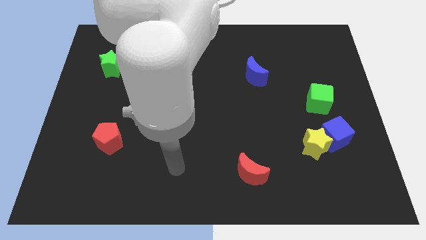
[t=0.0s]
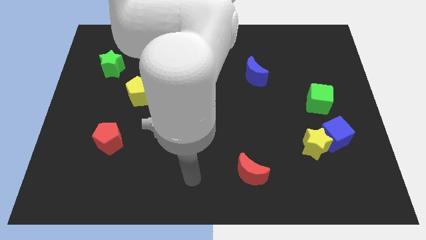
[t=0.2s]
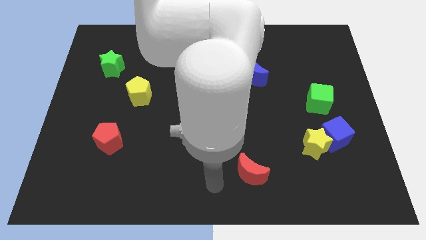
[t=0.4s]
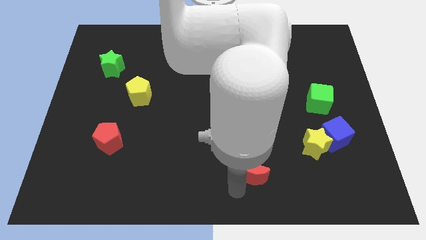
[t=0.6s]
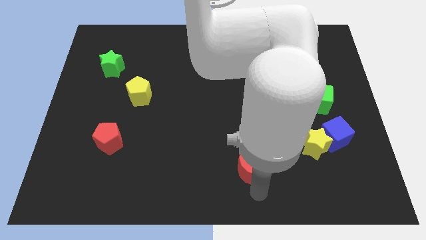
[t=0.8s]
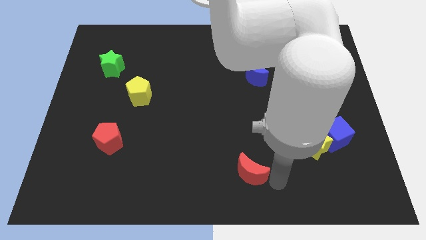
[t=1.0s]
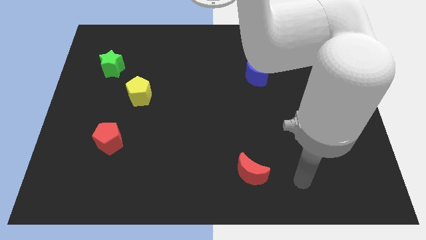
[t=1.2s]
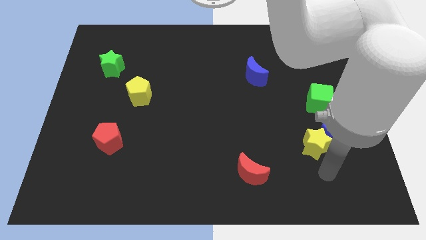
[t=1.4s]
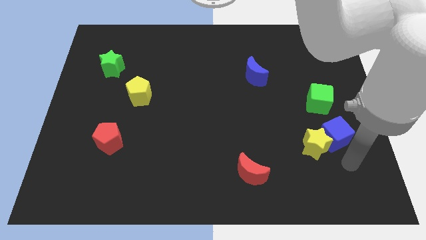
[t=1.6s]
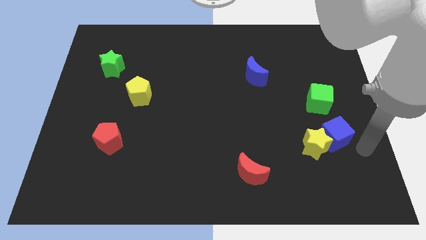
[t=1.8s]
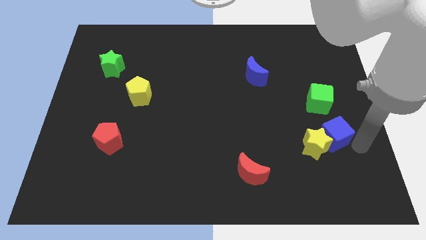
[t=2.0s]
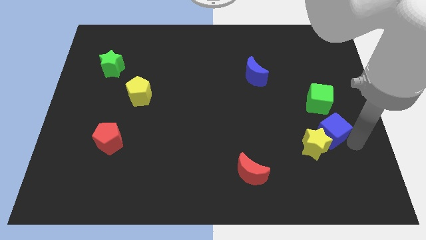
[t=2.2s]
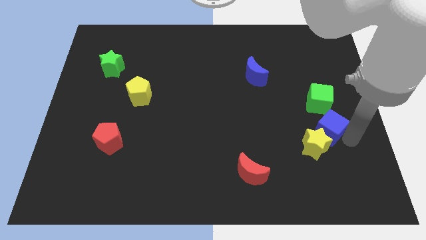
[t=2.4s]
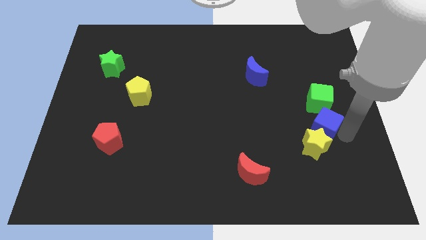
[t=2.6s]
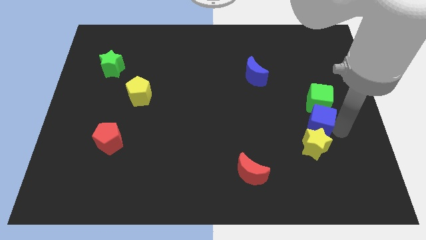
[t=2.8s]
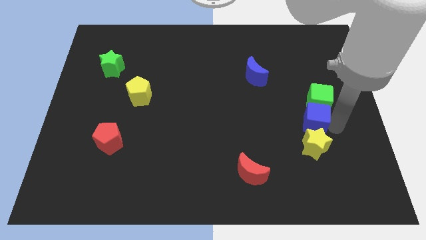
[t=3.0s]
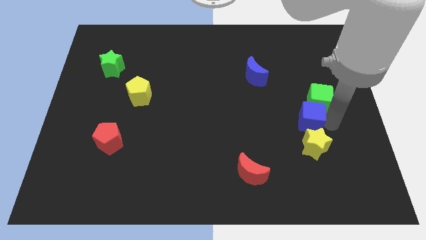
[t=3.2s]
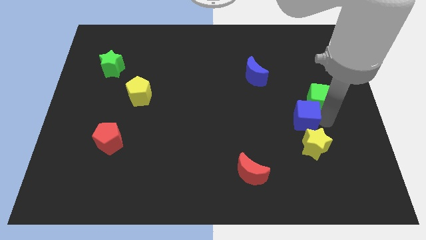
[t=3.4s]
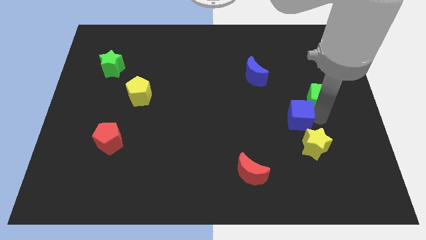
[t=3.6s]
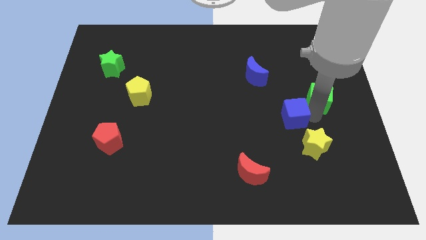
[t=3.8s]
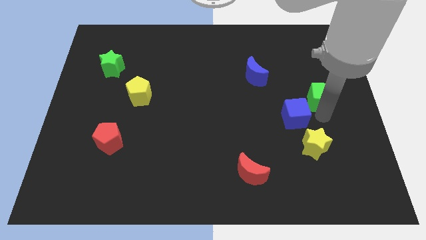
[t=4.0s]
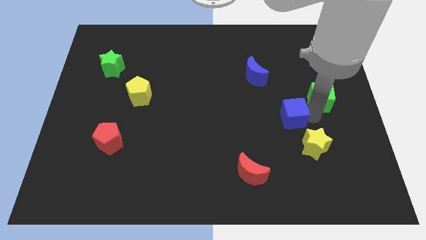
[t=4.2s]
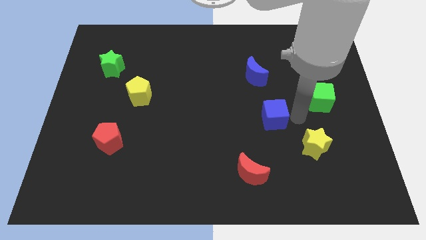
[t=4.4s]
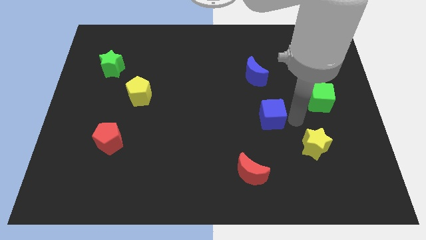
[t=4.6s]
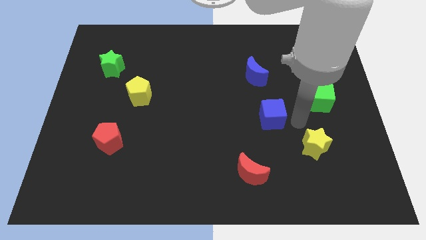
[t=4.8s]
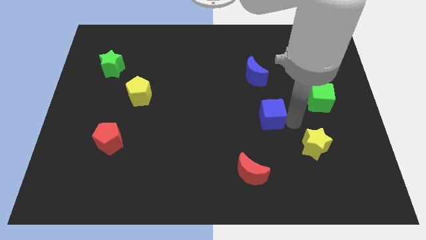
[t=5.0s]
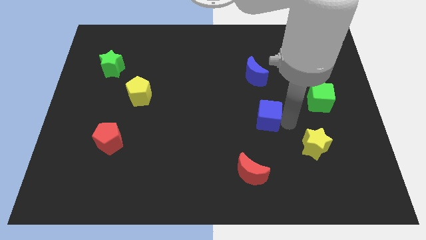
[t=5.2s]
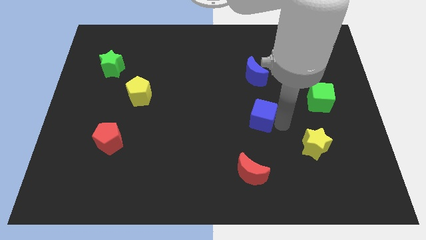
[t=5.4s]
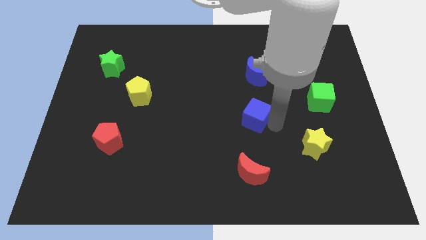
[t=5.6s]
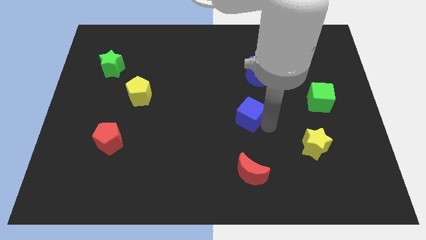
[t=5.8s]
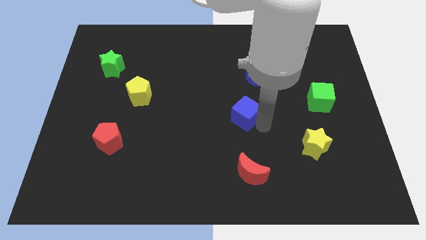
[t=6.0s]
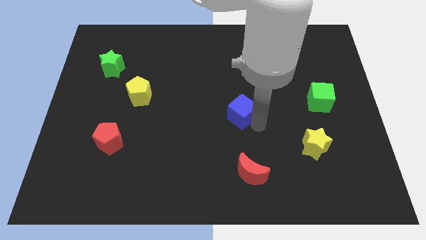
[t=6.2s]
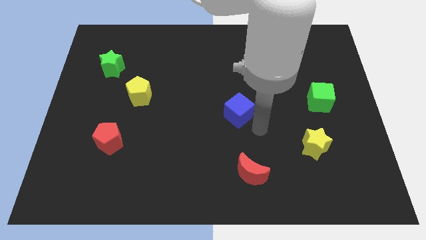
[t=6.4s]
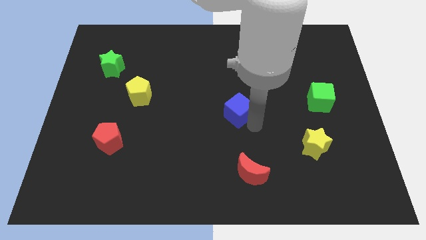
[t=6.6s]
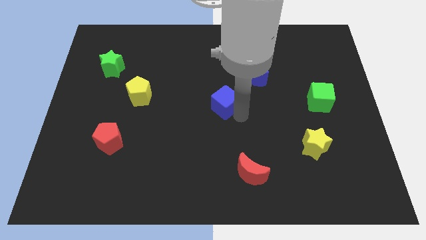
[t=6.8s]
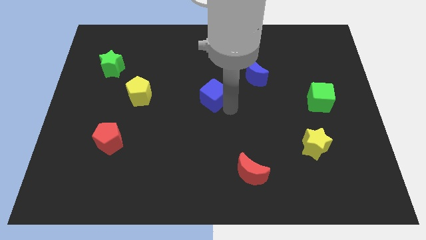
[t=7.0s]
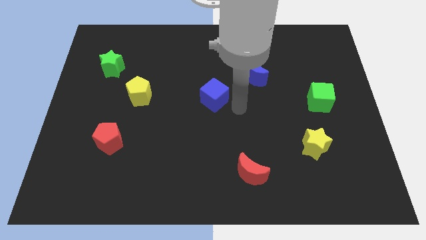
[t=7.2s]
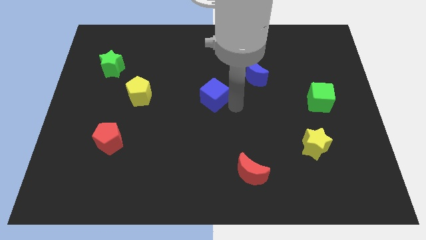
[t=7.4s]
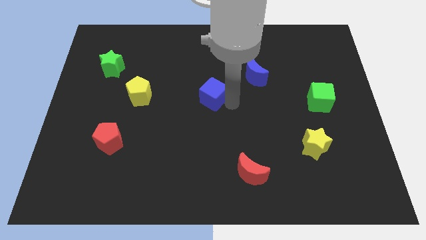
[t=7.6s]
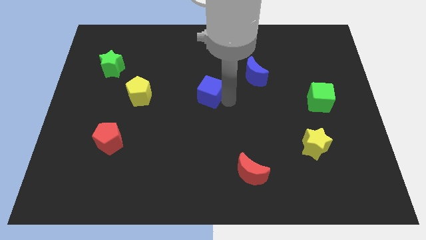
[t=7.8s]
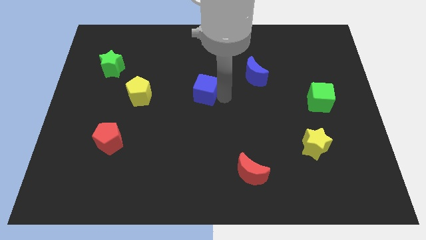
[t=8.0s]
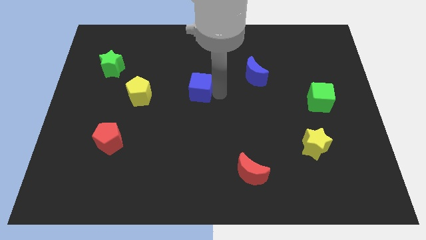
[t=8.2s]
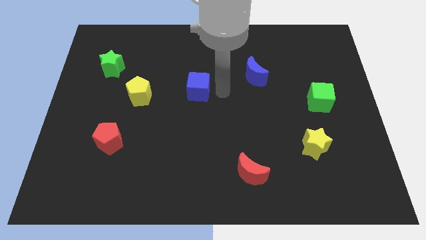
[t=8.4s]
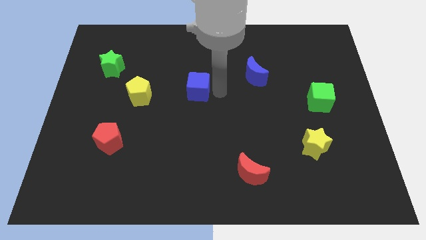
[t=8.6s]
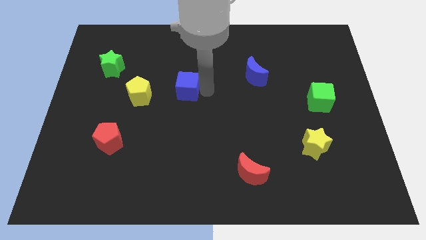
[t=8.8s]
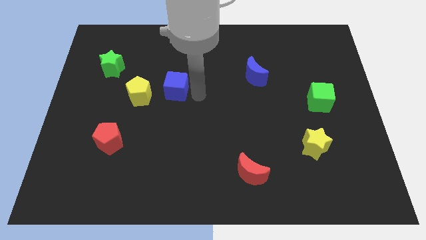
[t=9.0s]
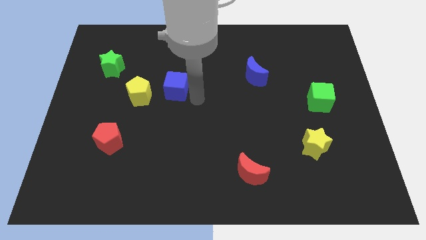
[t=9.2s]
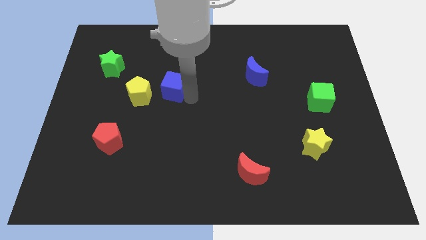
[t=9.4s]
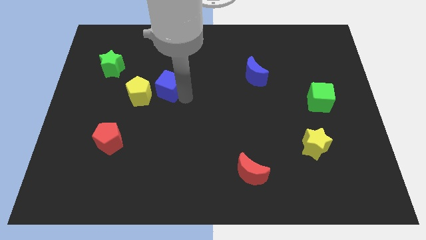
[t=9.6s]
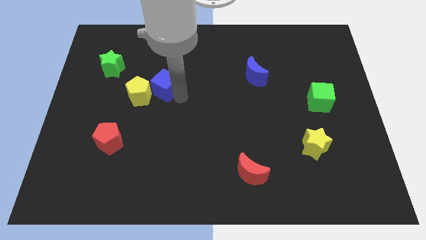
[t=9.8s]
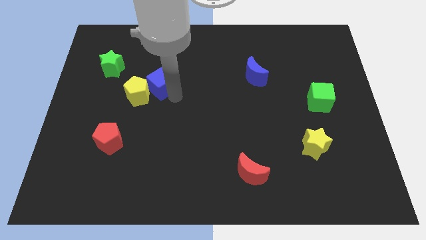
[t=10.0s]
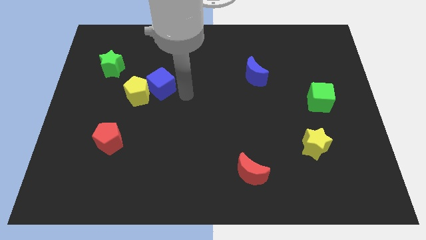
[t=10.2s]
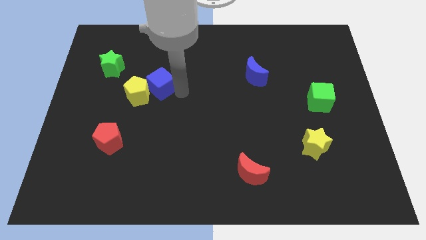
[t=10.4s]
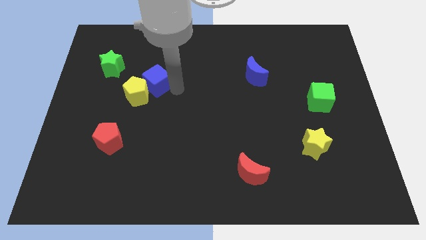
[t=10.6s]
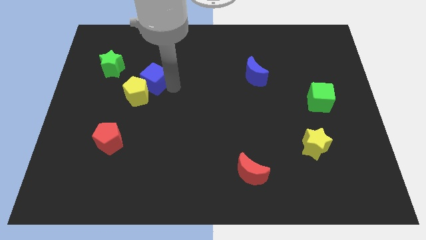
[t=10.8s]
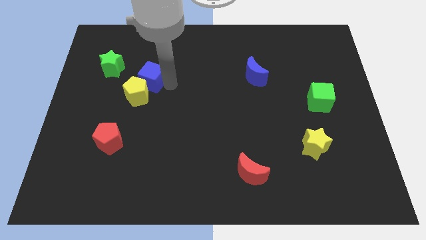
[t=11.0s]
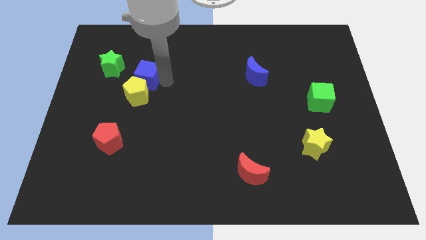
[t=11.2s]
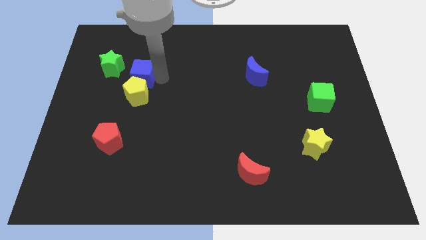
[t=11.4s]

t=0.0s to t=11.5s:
slide the blue cube to the top left of the yellow pentagon

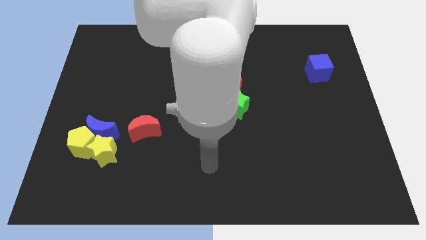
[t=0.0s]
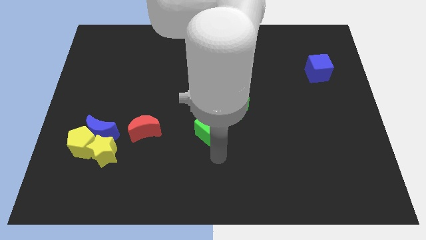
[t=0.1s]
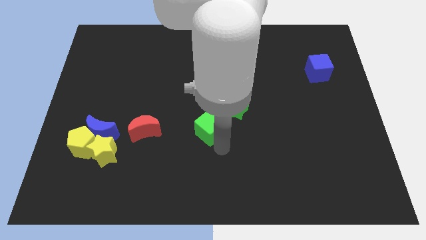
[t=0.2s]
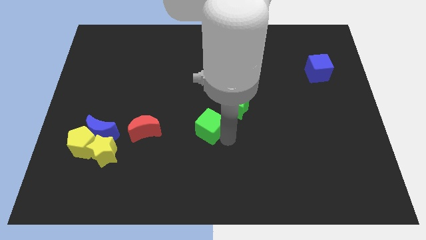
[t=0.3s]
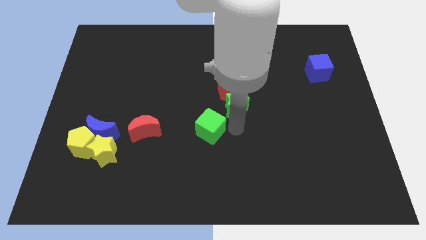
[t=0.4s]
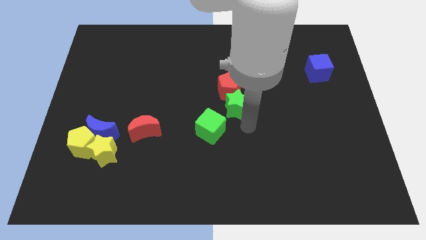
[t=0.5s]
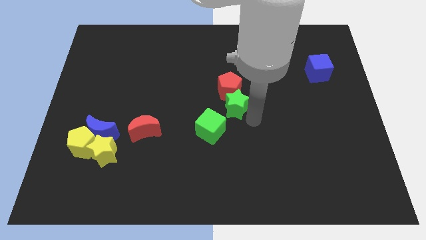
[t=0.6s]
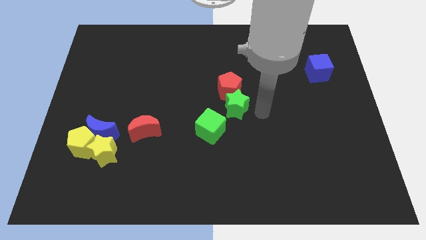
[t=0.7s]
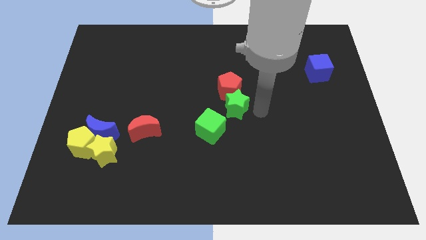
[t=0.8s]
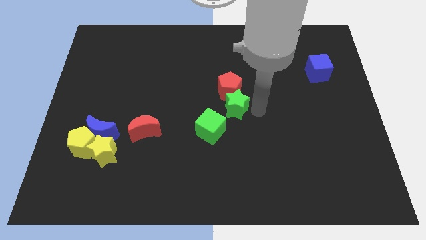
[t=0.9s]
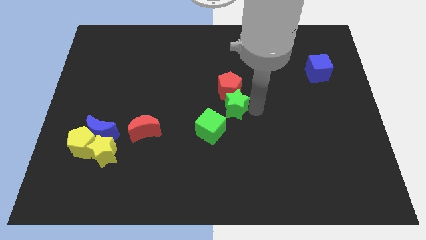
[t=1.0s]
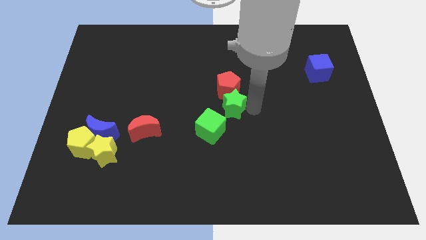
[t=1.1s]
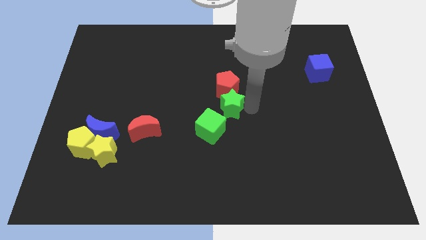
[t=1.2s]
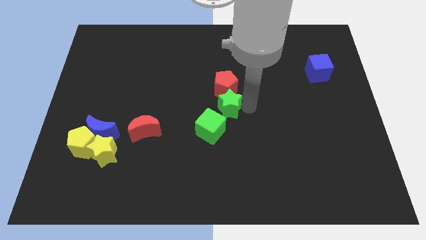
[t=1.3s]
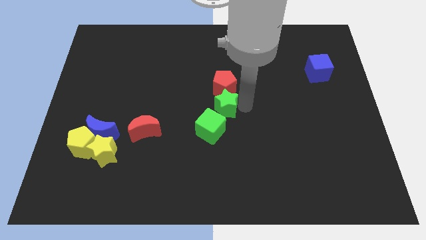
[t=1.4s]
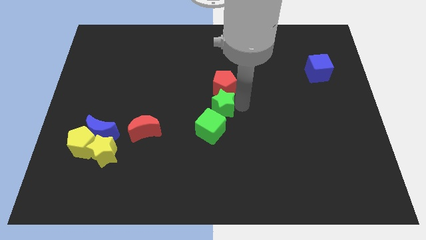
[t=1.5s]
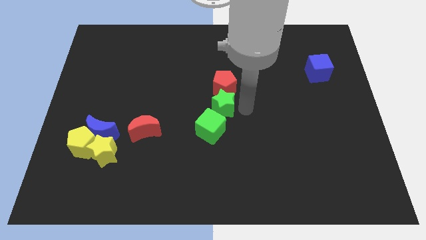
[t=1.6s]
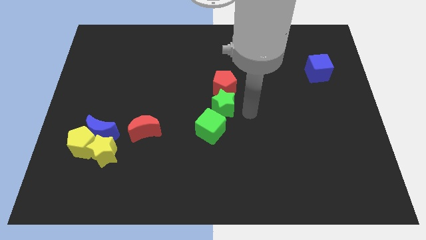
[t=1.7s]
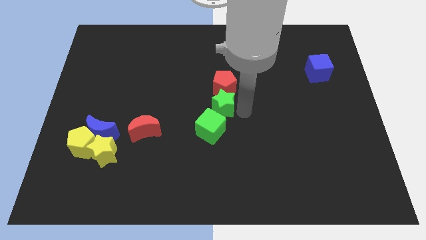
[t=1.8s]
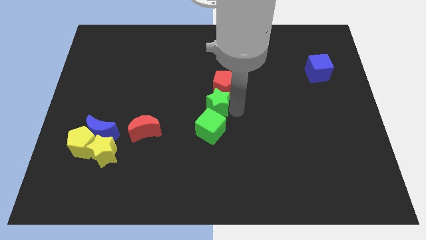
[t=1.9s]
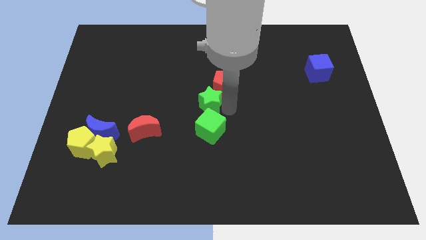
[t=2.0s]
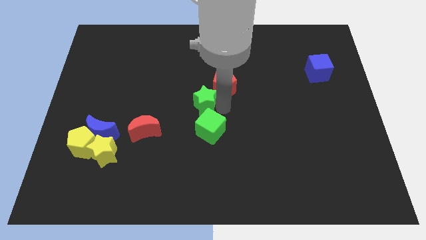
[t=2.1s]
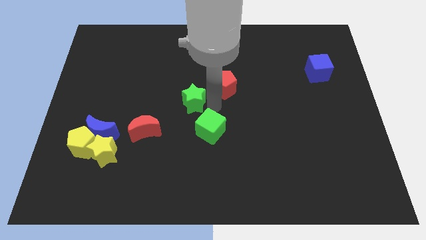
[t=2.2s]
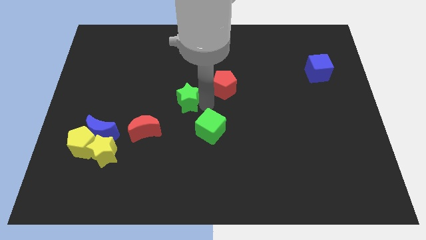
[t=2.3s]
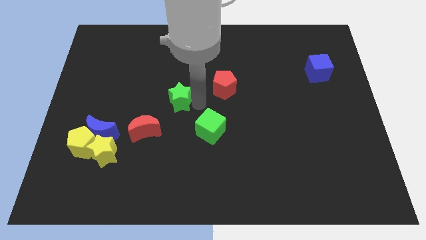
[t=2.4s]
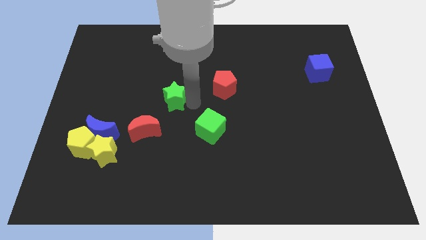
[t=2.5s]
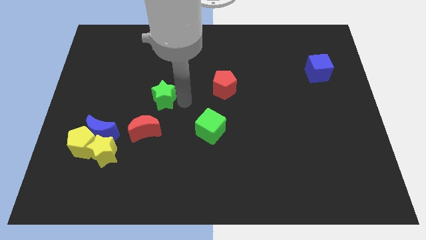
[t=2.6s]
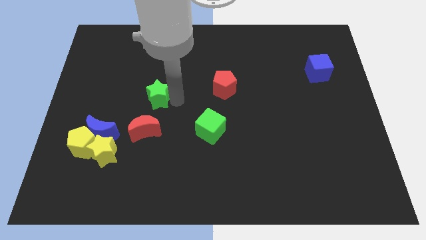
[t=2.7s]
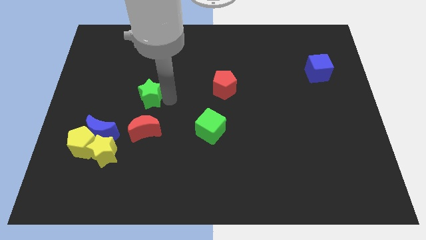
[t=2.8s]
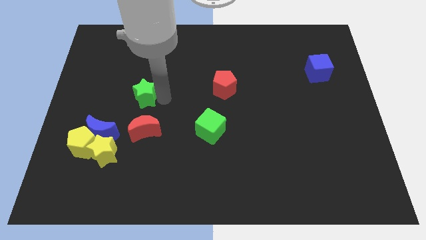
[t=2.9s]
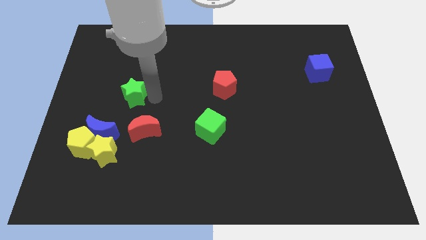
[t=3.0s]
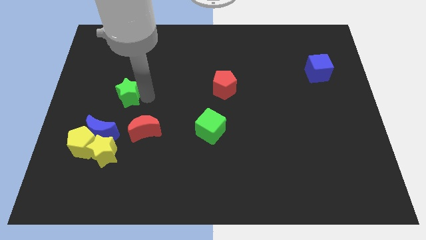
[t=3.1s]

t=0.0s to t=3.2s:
put the green star to the top of the blue moon
